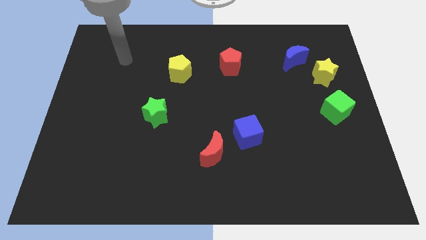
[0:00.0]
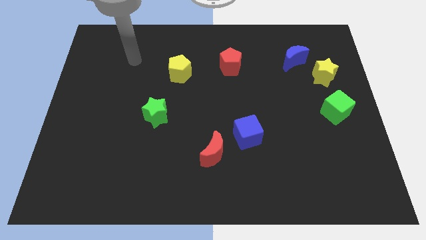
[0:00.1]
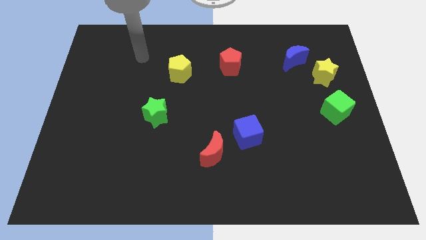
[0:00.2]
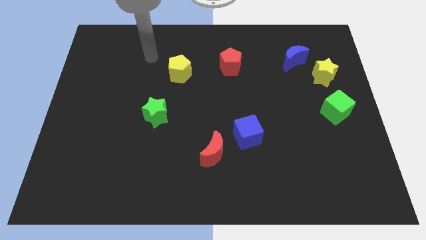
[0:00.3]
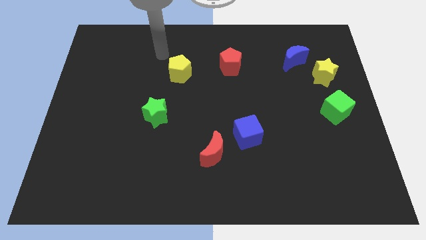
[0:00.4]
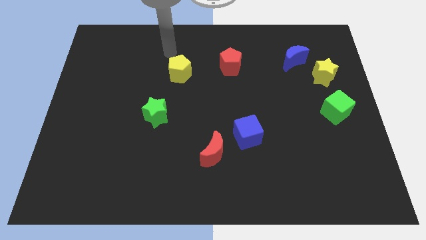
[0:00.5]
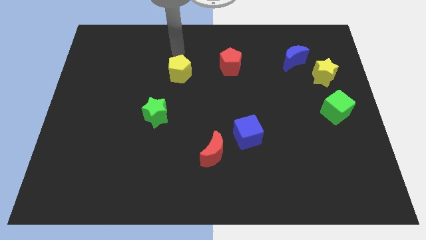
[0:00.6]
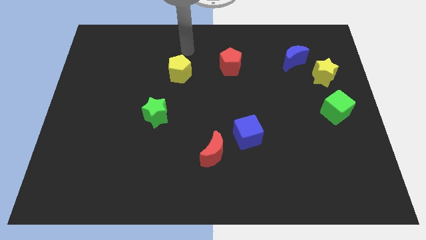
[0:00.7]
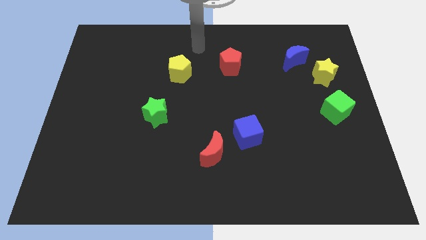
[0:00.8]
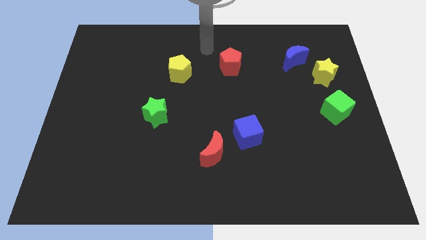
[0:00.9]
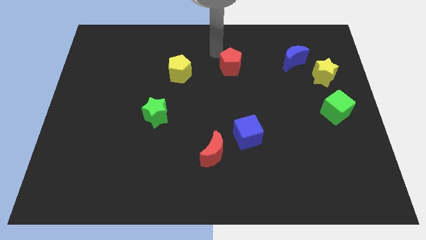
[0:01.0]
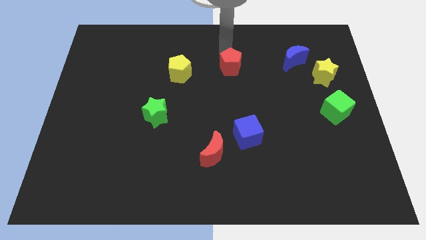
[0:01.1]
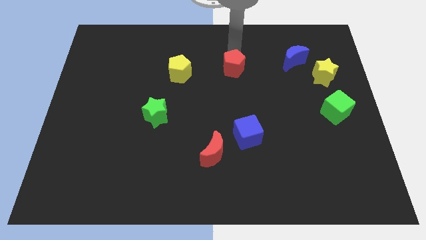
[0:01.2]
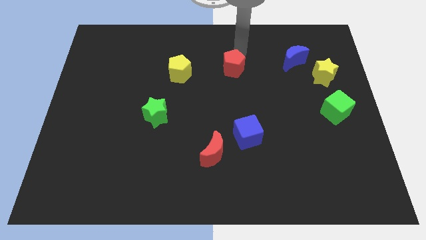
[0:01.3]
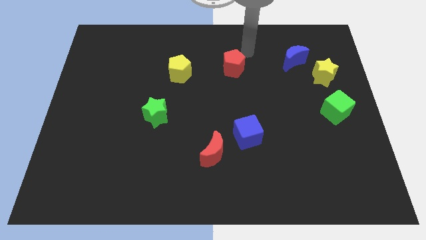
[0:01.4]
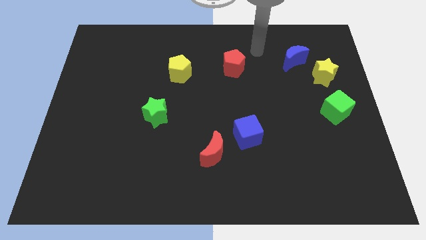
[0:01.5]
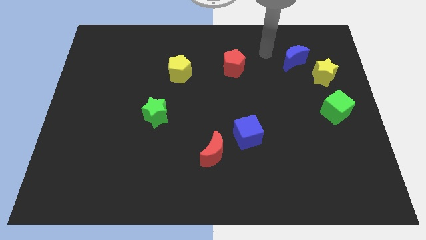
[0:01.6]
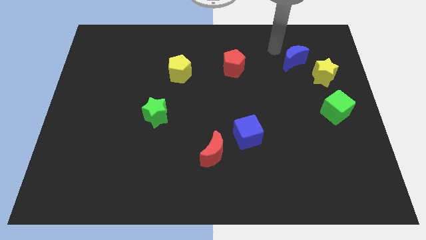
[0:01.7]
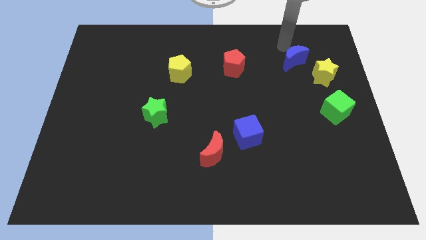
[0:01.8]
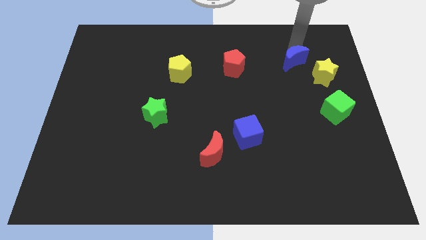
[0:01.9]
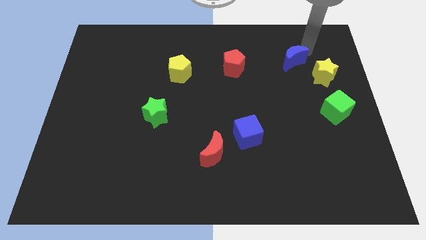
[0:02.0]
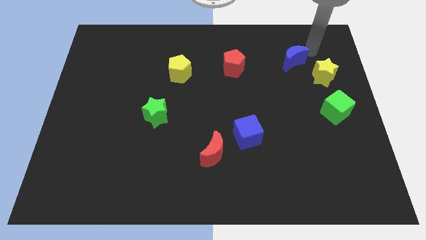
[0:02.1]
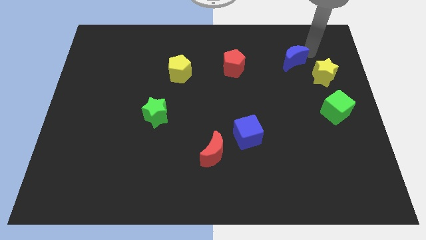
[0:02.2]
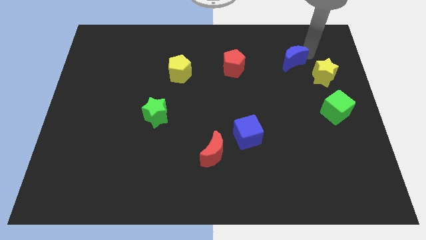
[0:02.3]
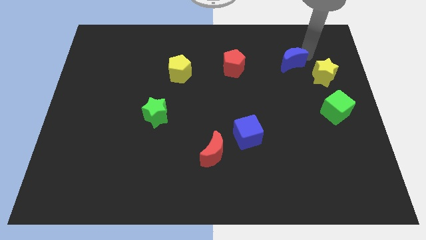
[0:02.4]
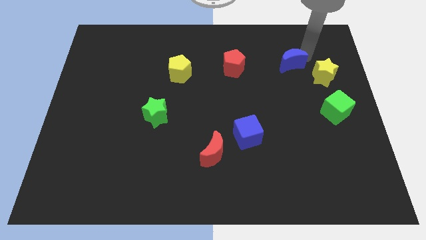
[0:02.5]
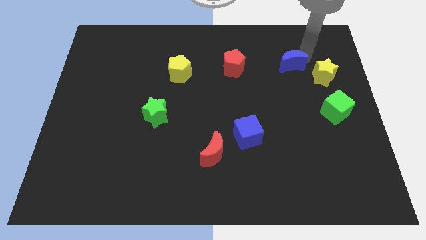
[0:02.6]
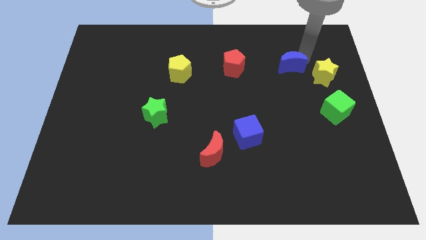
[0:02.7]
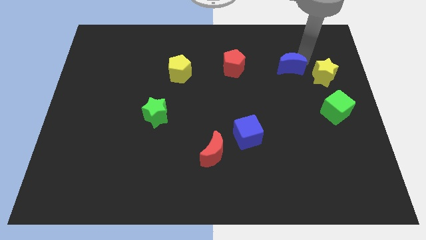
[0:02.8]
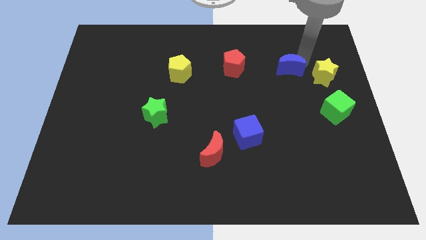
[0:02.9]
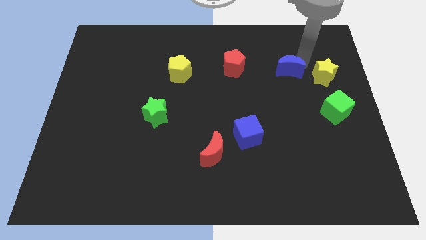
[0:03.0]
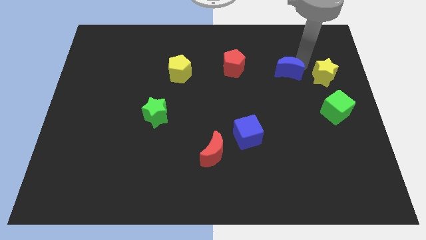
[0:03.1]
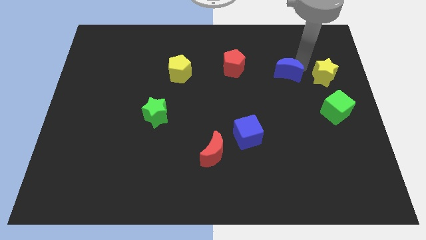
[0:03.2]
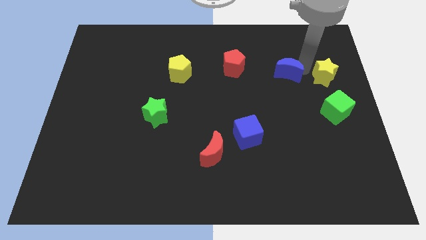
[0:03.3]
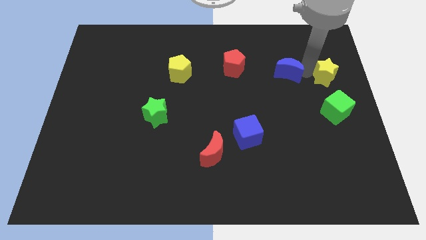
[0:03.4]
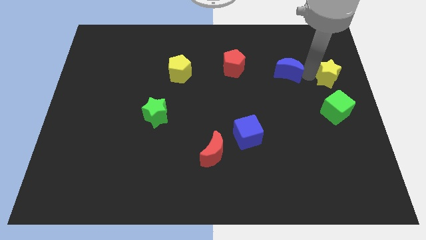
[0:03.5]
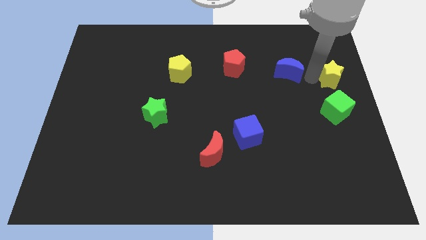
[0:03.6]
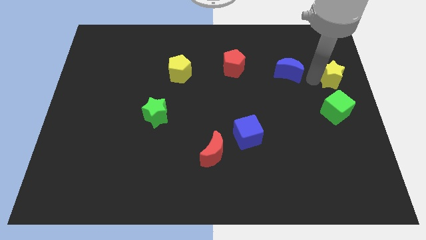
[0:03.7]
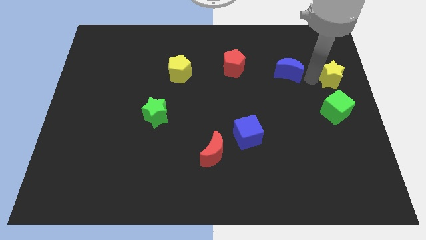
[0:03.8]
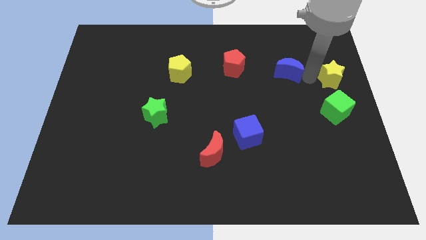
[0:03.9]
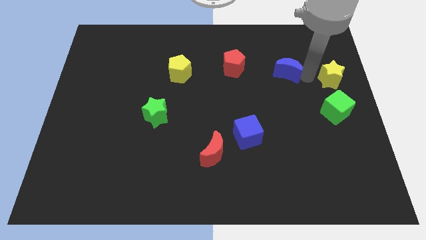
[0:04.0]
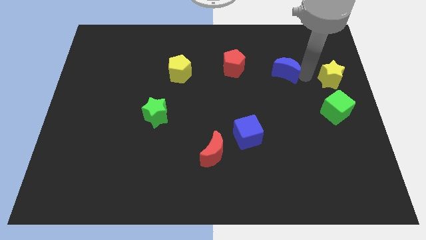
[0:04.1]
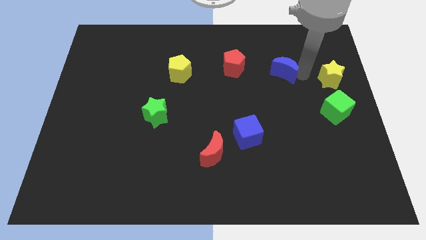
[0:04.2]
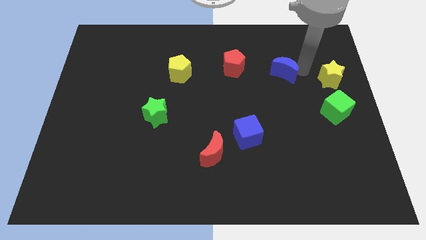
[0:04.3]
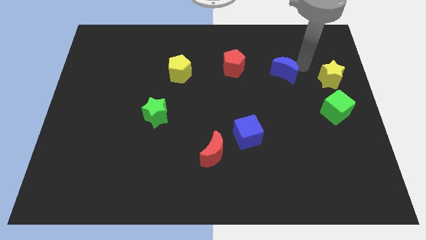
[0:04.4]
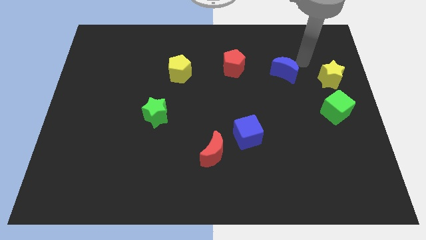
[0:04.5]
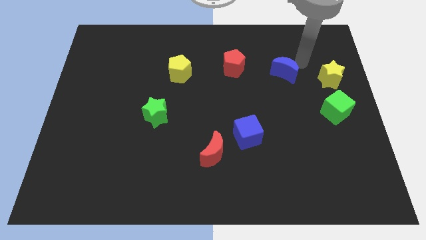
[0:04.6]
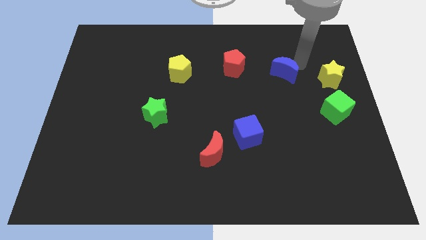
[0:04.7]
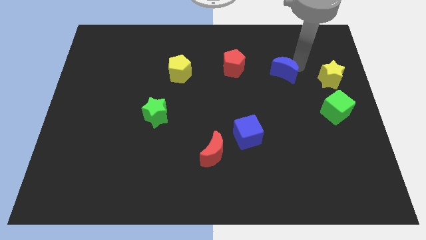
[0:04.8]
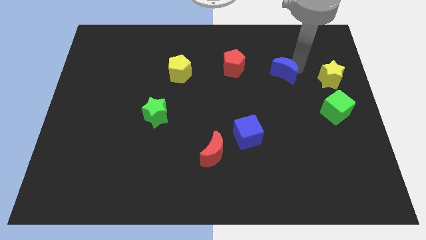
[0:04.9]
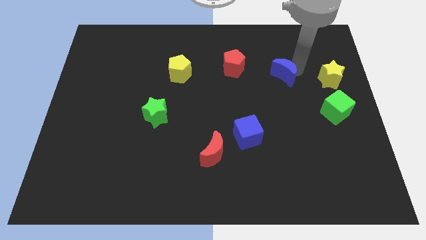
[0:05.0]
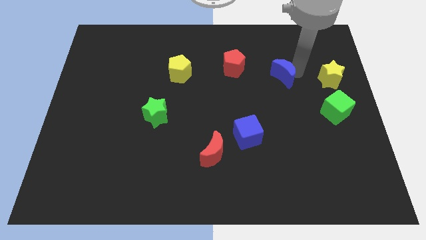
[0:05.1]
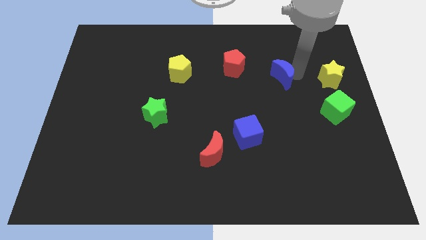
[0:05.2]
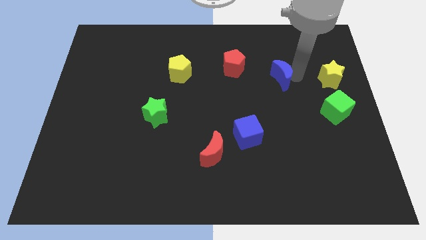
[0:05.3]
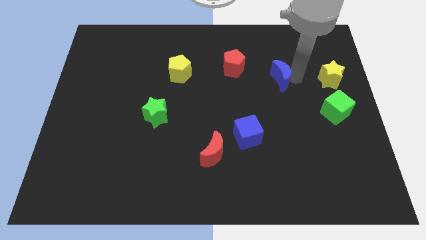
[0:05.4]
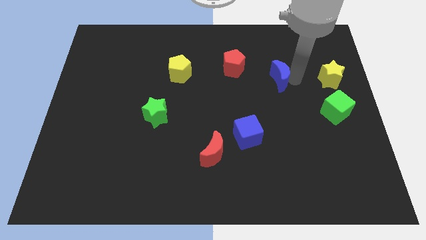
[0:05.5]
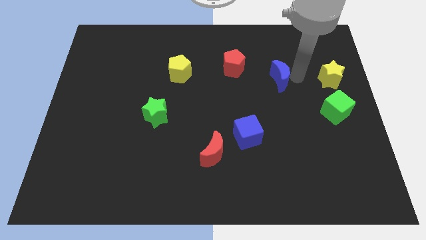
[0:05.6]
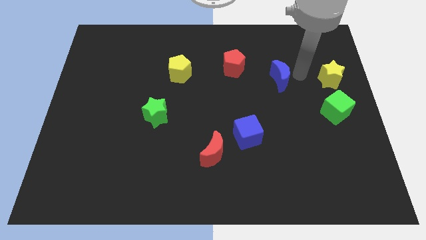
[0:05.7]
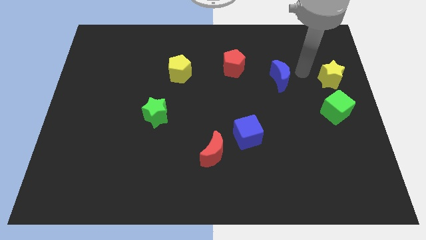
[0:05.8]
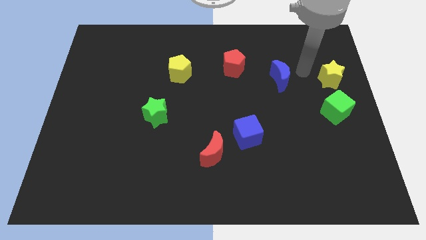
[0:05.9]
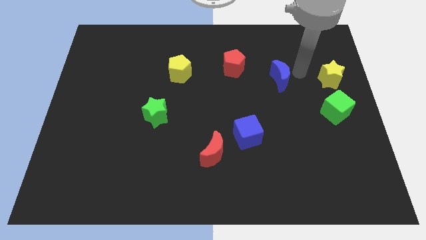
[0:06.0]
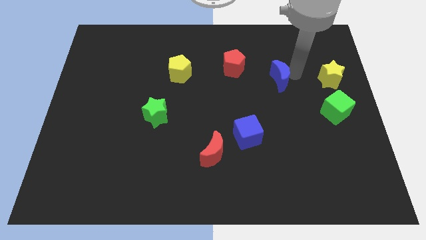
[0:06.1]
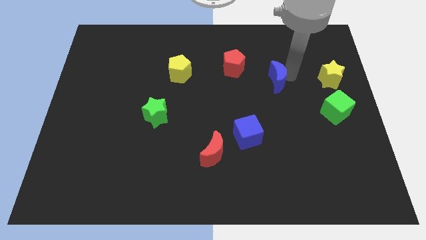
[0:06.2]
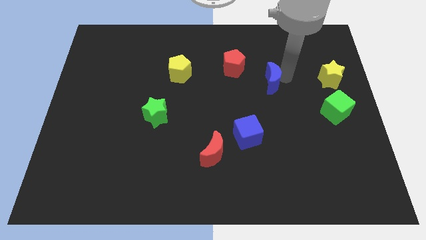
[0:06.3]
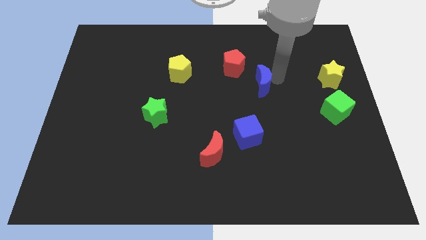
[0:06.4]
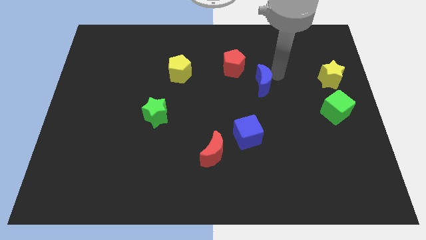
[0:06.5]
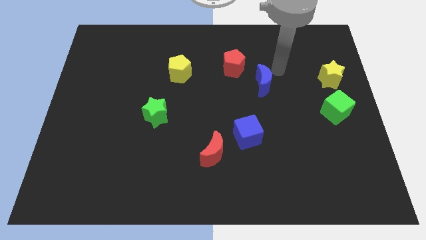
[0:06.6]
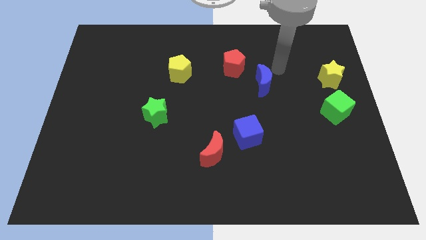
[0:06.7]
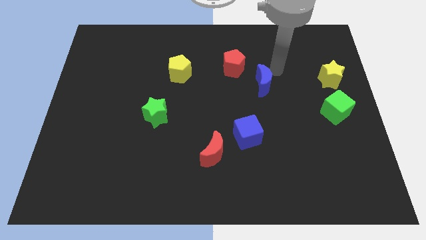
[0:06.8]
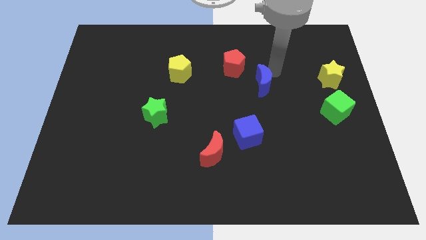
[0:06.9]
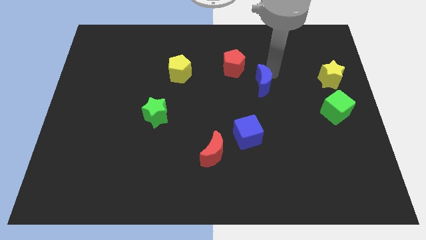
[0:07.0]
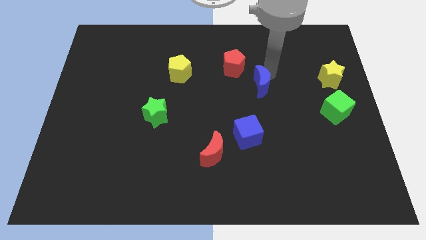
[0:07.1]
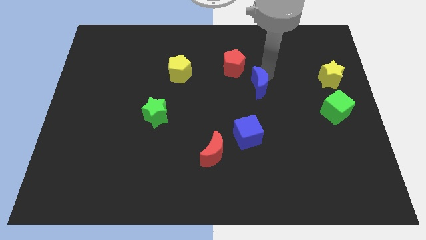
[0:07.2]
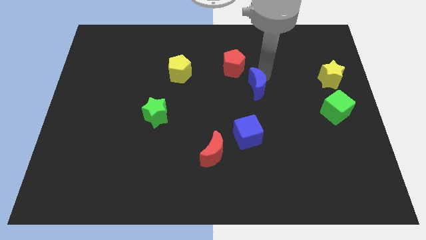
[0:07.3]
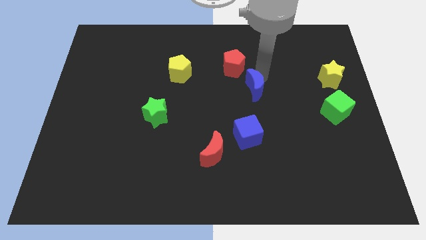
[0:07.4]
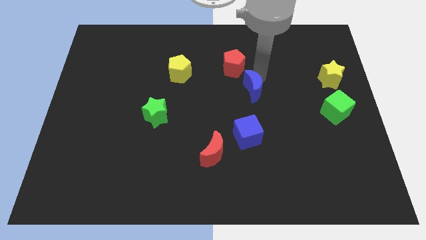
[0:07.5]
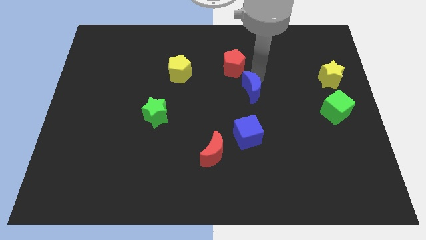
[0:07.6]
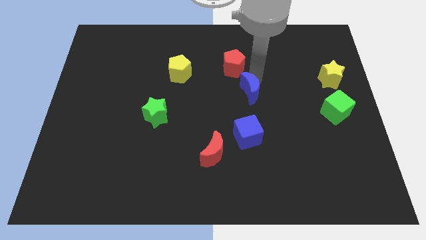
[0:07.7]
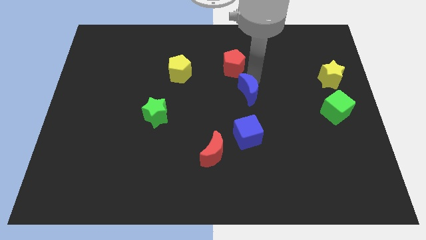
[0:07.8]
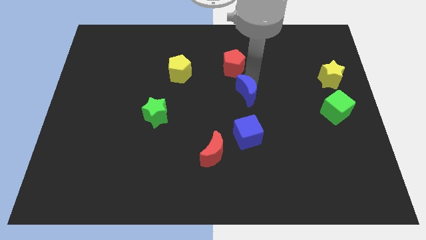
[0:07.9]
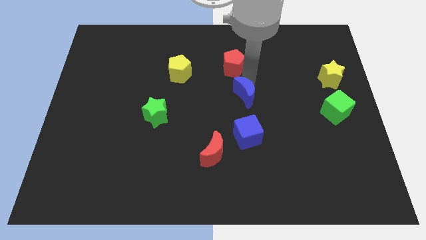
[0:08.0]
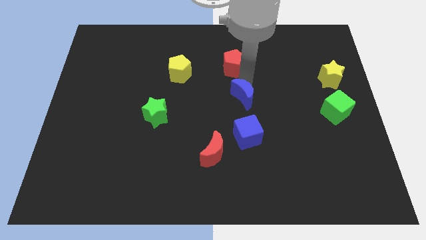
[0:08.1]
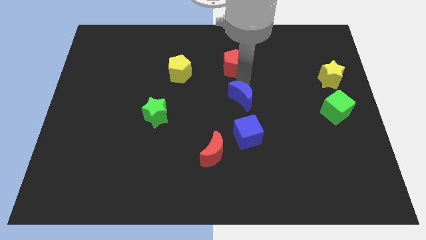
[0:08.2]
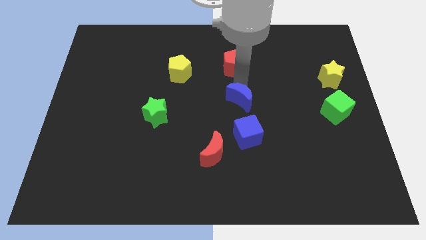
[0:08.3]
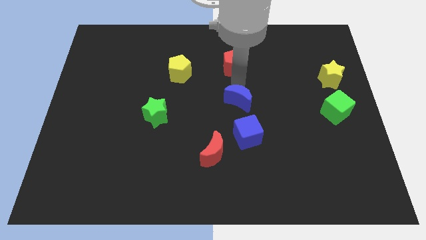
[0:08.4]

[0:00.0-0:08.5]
slide the blue moon down and to the left
